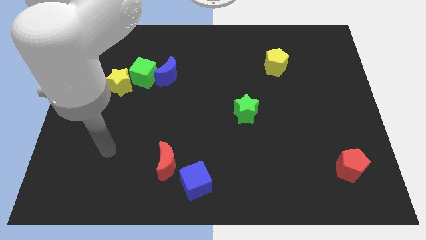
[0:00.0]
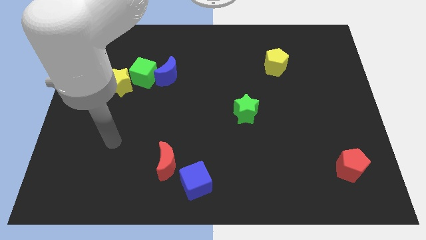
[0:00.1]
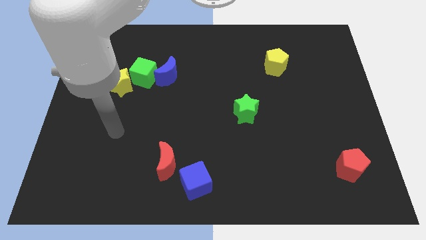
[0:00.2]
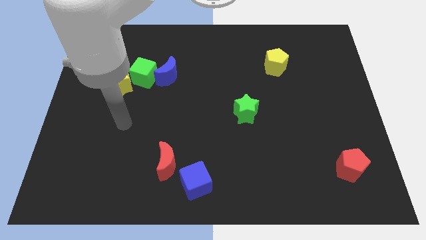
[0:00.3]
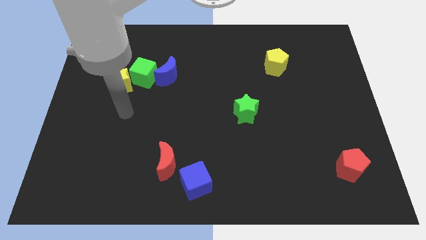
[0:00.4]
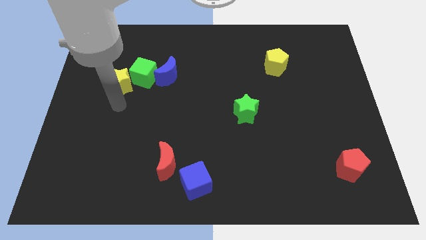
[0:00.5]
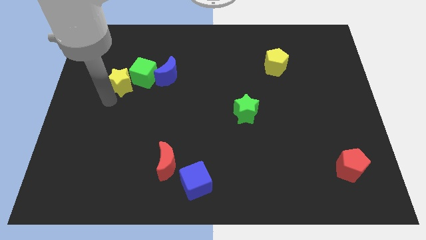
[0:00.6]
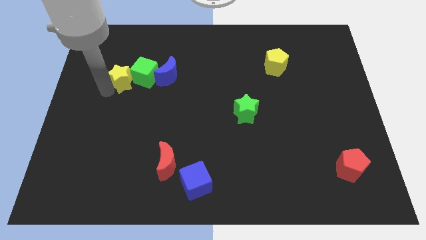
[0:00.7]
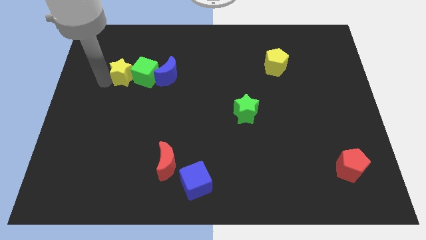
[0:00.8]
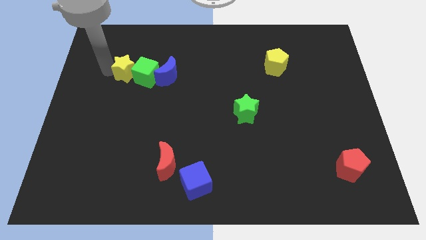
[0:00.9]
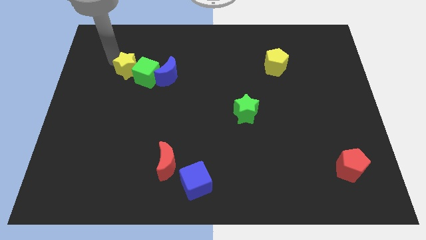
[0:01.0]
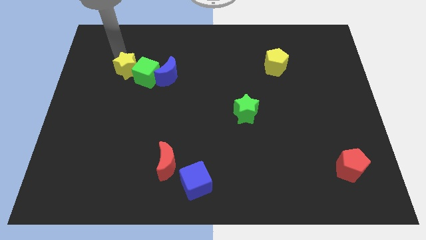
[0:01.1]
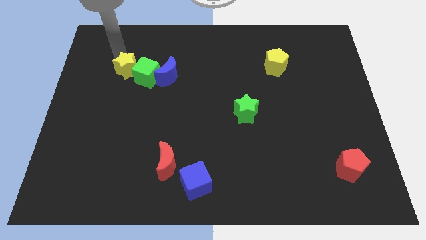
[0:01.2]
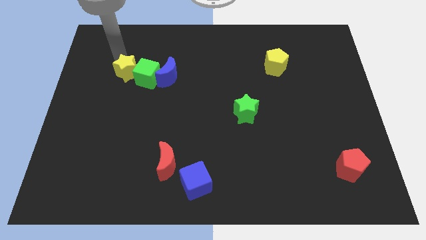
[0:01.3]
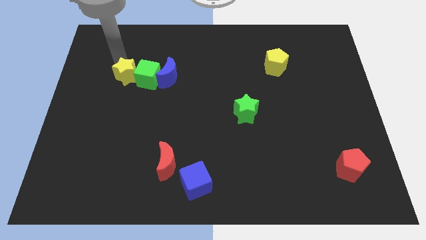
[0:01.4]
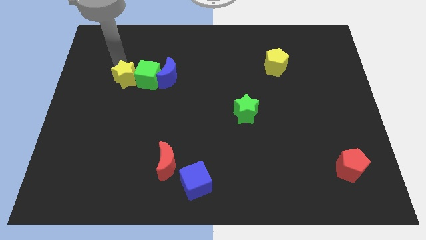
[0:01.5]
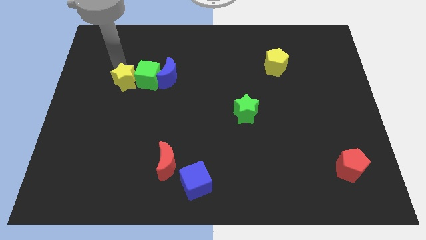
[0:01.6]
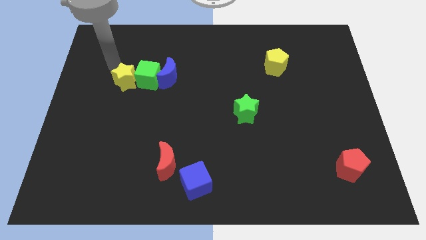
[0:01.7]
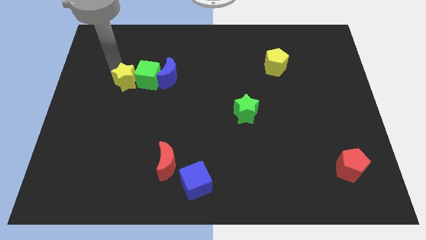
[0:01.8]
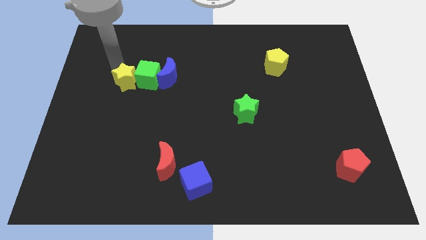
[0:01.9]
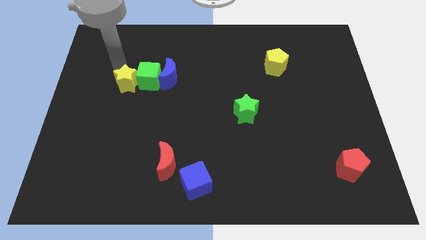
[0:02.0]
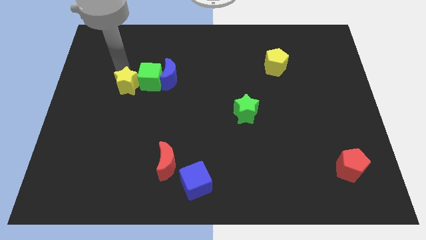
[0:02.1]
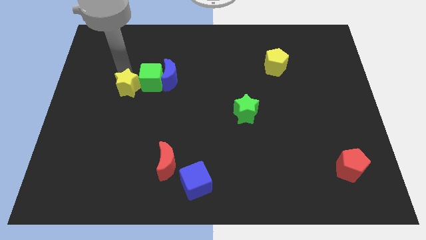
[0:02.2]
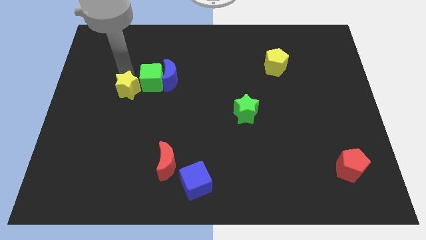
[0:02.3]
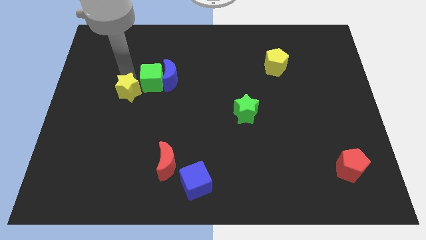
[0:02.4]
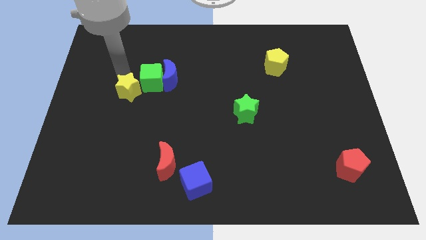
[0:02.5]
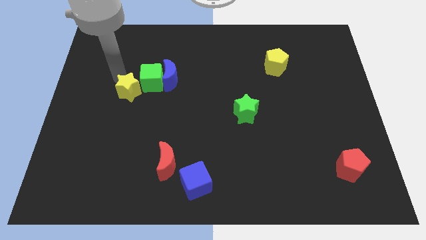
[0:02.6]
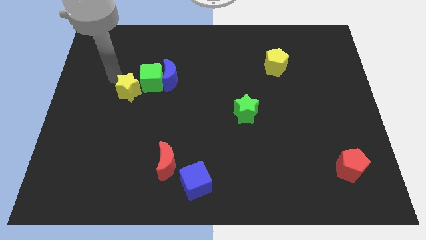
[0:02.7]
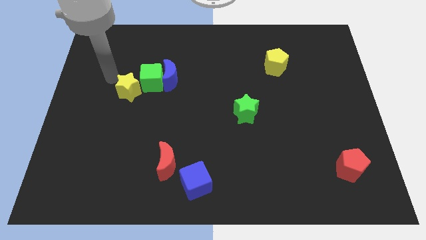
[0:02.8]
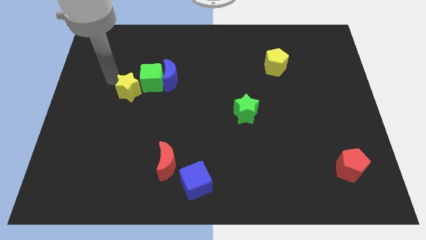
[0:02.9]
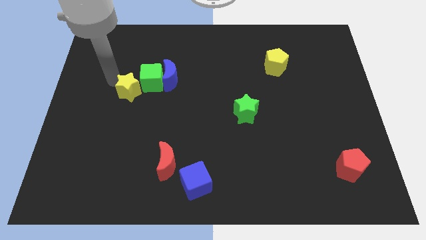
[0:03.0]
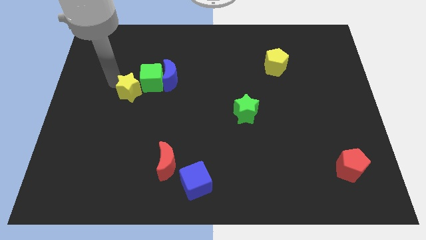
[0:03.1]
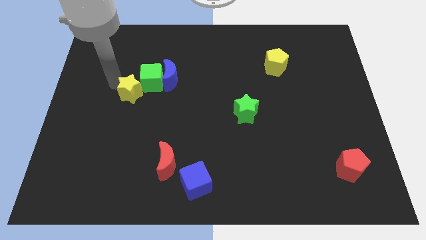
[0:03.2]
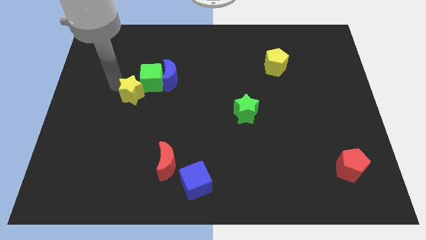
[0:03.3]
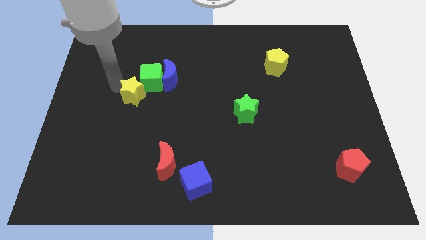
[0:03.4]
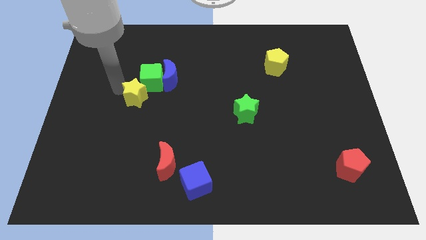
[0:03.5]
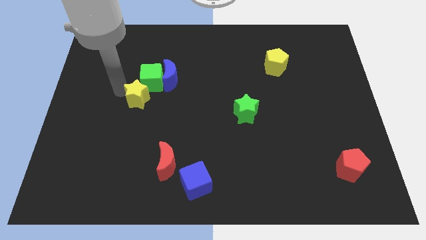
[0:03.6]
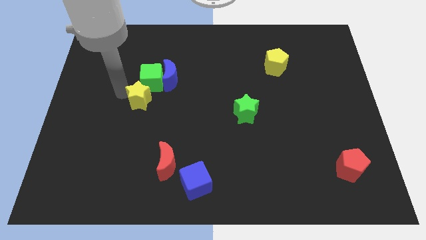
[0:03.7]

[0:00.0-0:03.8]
move the yellow star downwards and right diagonally a bit

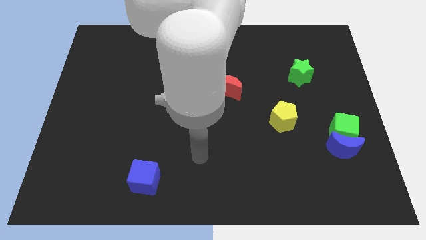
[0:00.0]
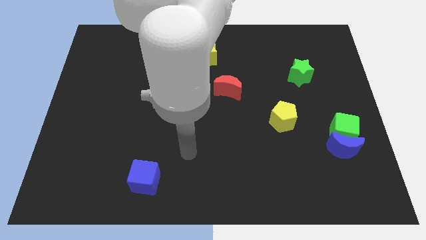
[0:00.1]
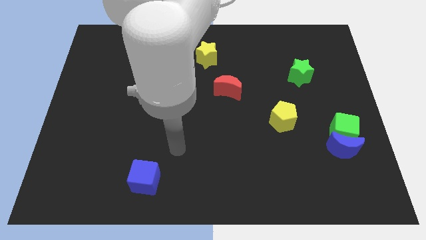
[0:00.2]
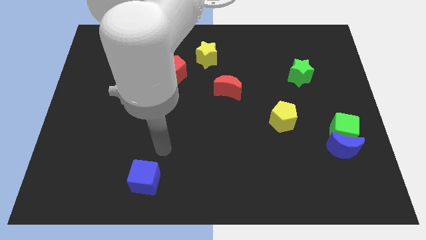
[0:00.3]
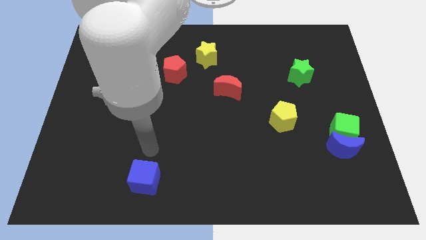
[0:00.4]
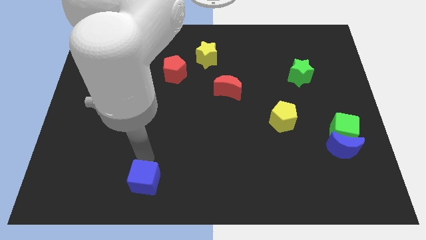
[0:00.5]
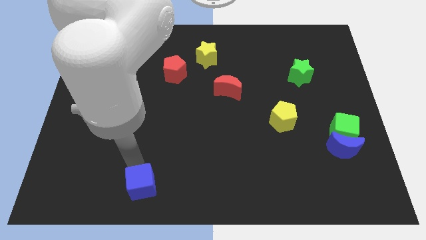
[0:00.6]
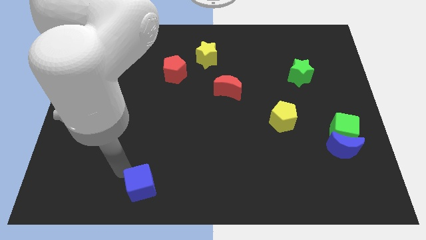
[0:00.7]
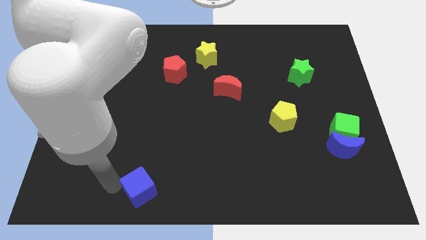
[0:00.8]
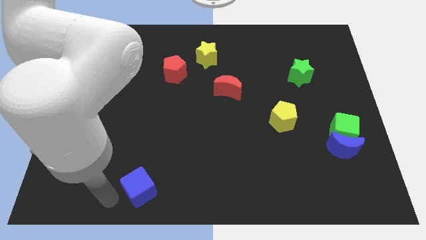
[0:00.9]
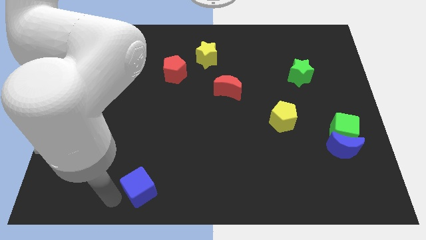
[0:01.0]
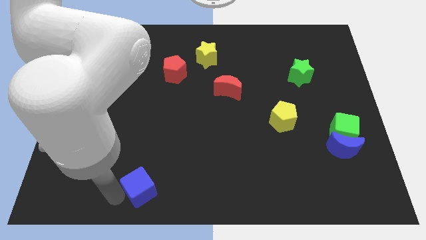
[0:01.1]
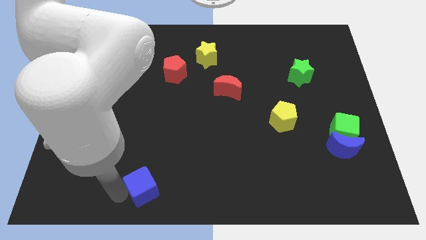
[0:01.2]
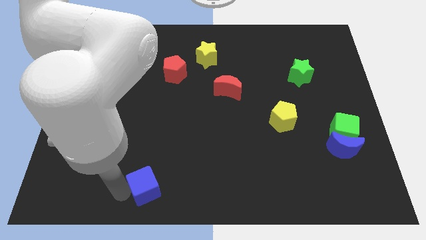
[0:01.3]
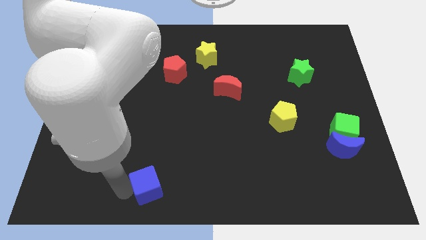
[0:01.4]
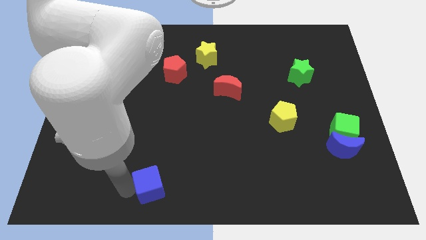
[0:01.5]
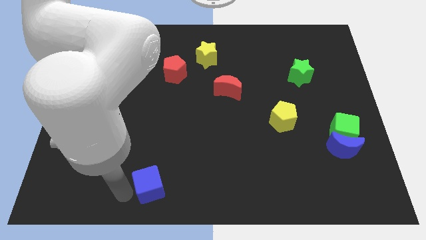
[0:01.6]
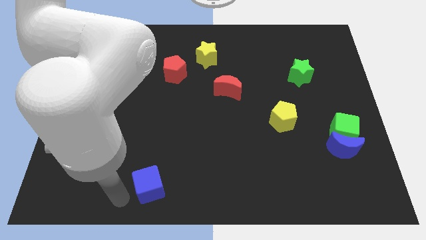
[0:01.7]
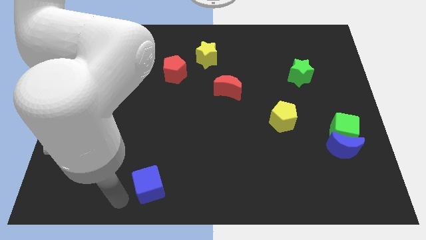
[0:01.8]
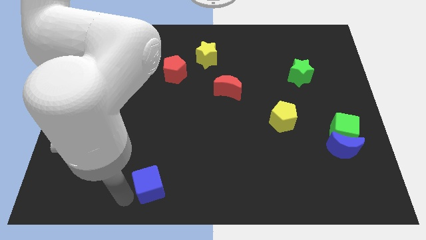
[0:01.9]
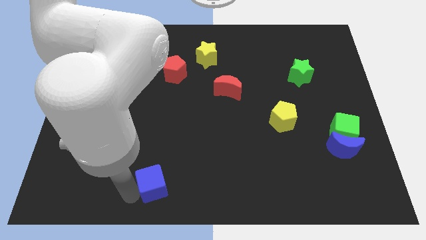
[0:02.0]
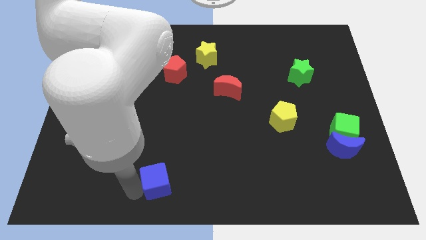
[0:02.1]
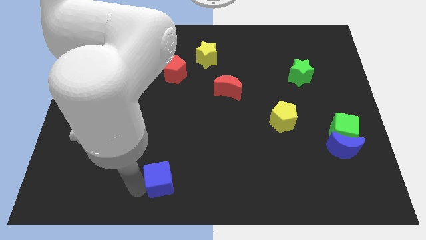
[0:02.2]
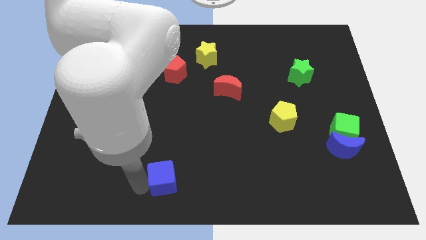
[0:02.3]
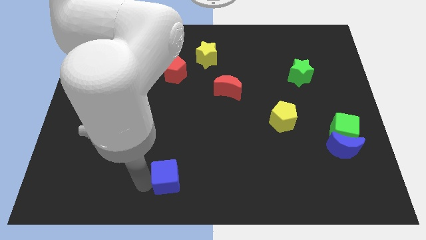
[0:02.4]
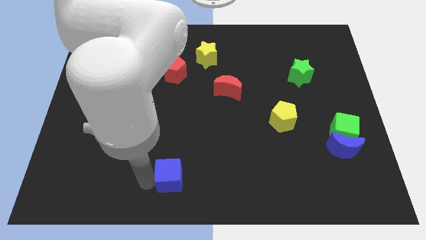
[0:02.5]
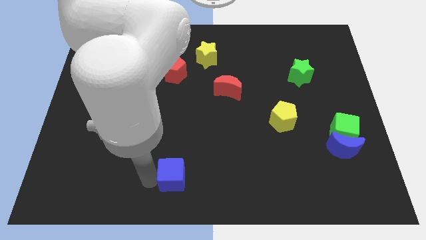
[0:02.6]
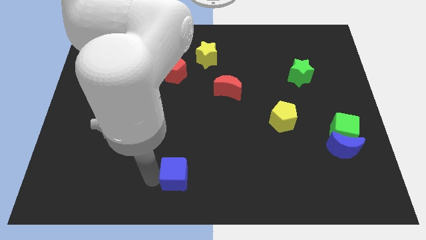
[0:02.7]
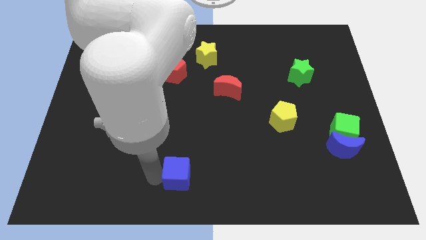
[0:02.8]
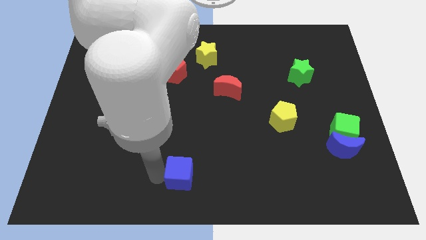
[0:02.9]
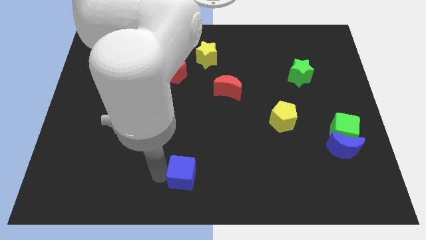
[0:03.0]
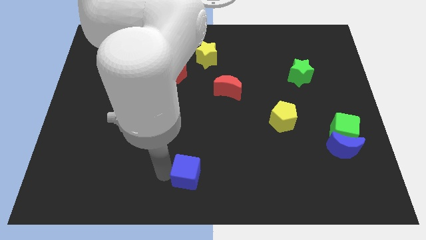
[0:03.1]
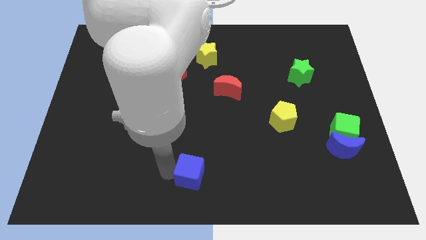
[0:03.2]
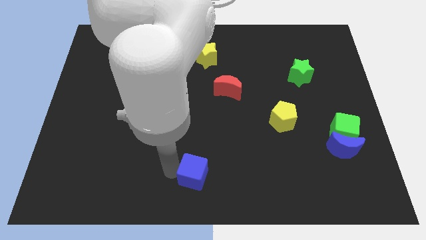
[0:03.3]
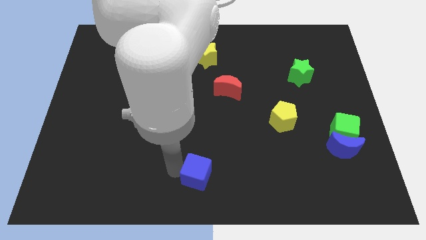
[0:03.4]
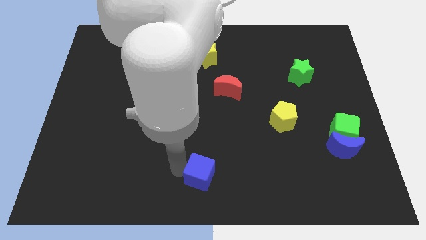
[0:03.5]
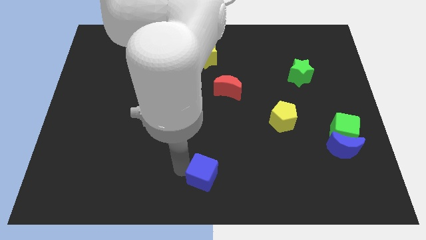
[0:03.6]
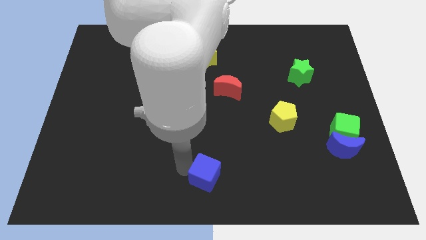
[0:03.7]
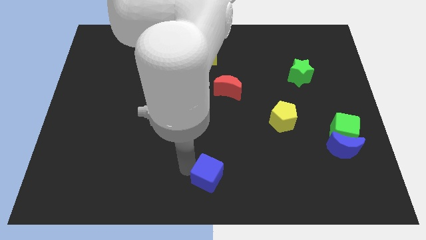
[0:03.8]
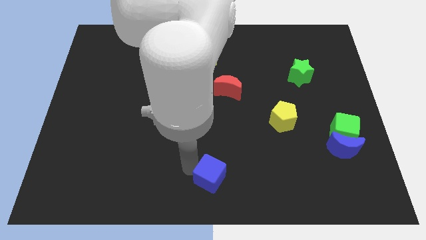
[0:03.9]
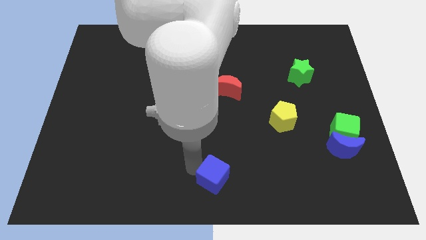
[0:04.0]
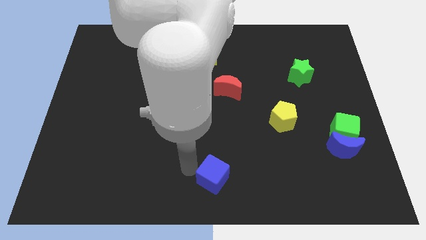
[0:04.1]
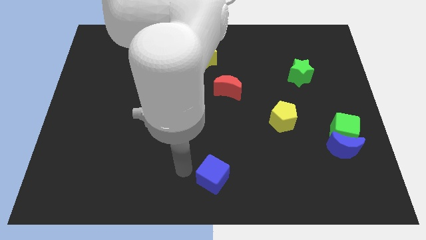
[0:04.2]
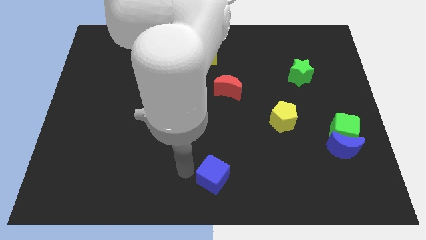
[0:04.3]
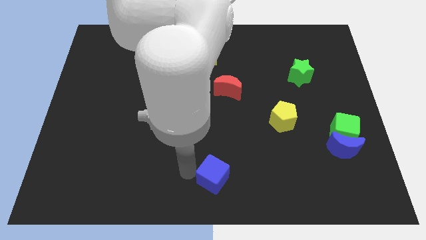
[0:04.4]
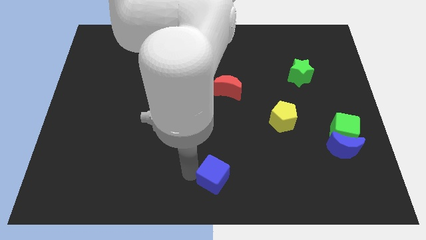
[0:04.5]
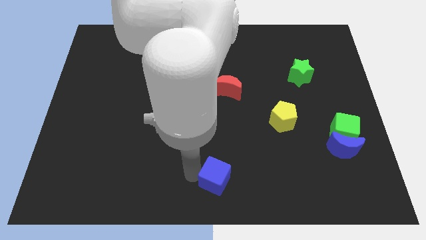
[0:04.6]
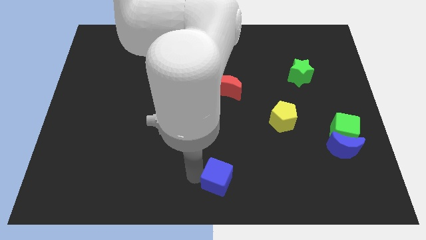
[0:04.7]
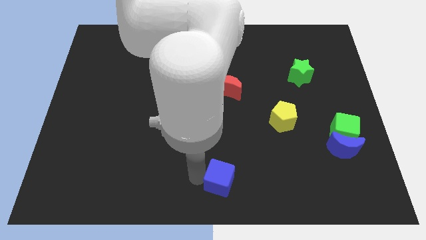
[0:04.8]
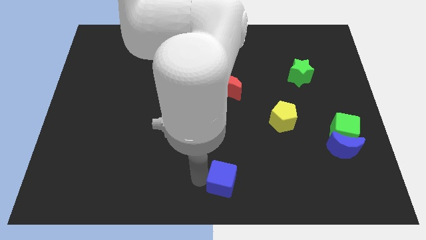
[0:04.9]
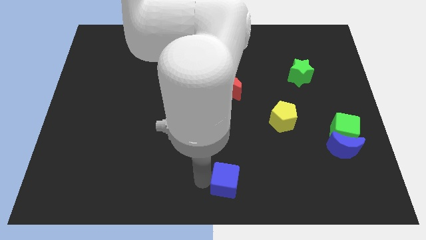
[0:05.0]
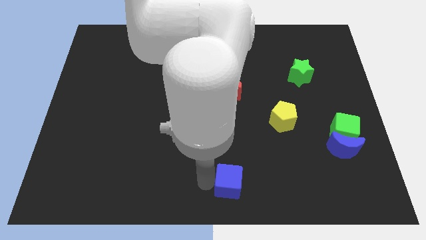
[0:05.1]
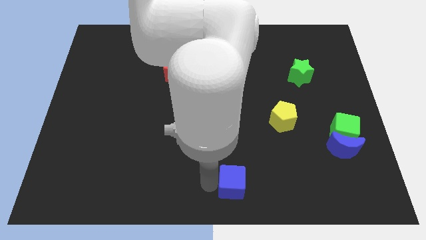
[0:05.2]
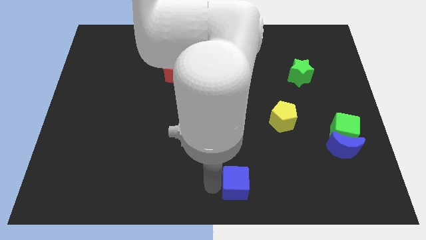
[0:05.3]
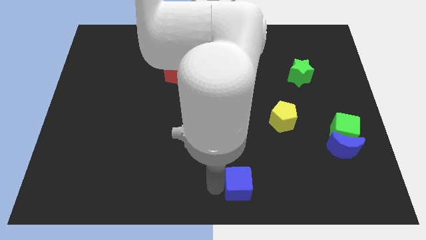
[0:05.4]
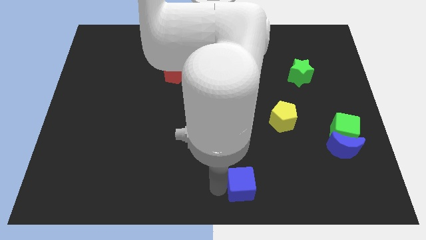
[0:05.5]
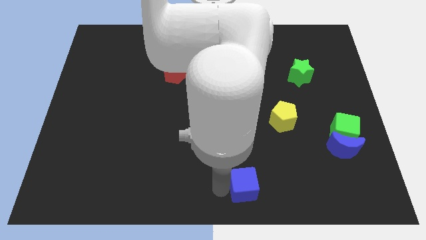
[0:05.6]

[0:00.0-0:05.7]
slide the blue cube right
